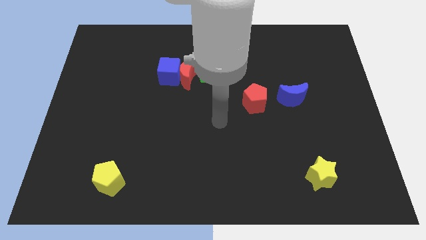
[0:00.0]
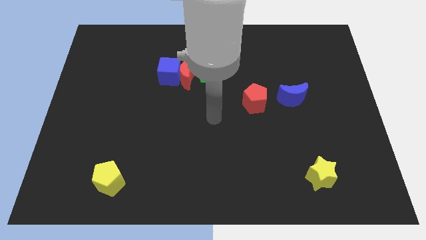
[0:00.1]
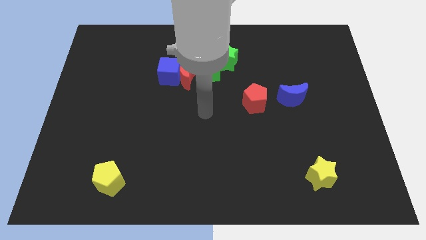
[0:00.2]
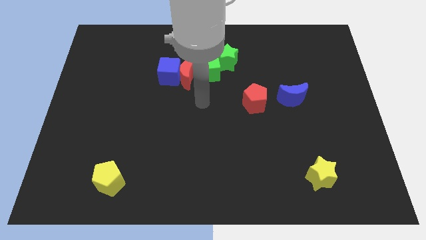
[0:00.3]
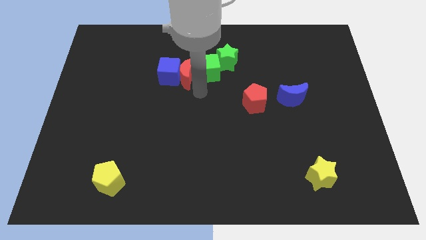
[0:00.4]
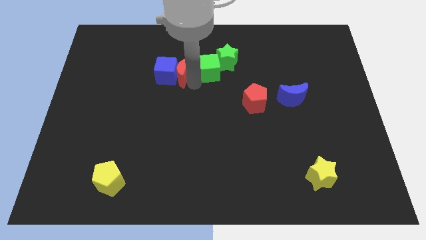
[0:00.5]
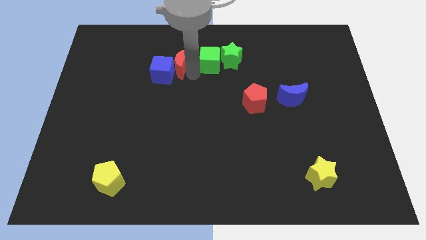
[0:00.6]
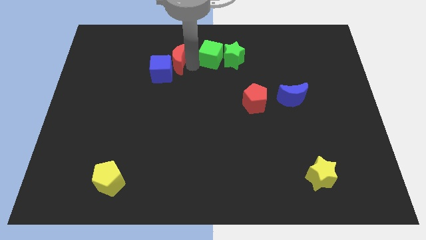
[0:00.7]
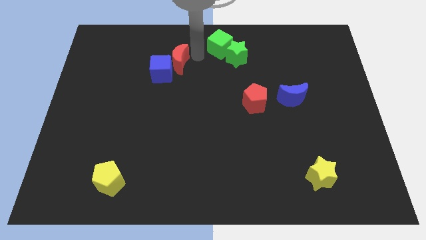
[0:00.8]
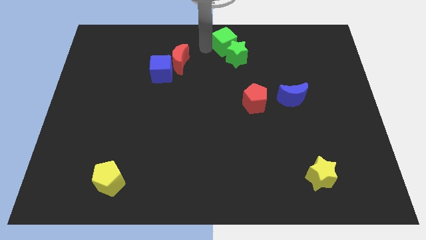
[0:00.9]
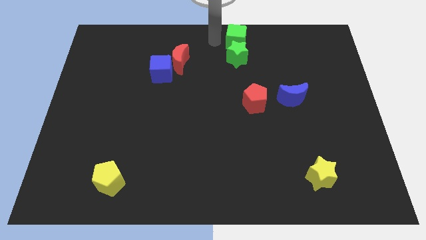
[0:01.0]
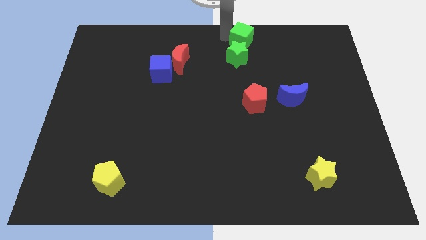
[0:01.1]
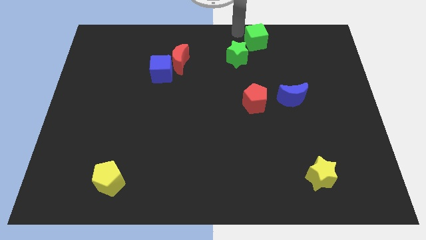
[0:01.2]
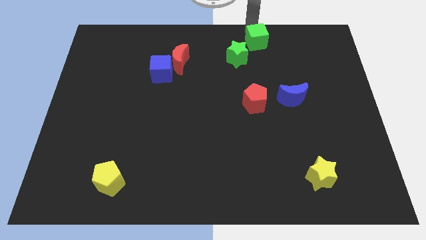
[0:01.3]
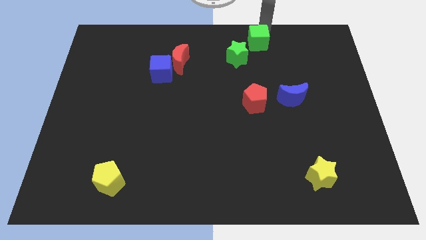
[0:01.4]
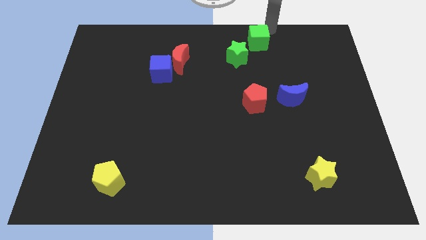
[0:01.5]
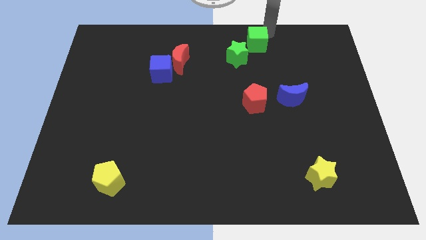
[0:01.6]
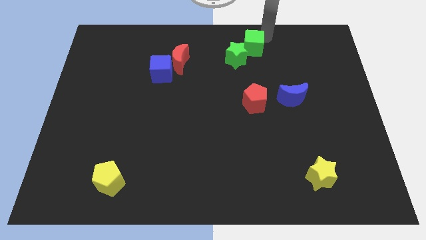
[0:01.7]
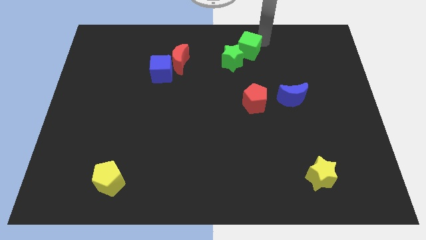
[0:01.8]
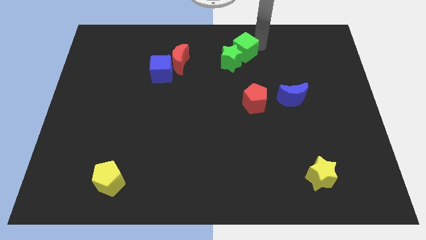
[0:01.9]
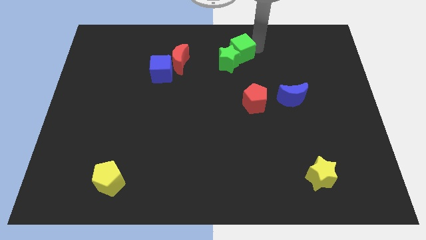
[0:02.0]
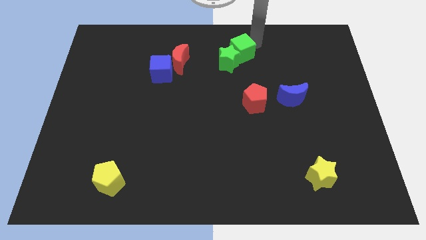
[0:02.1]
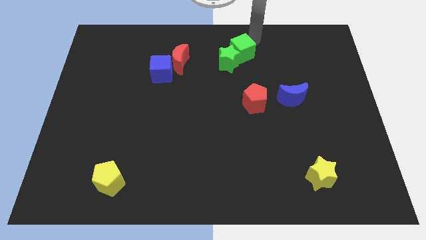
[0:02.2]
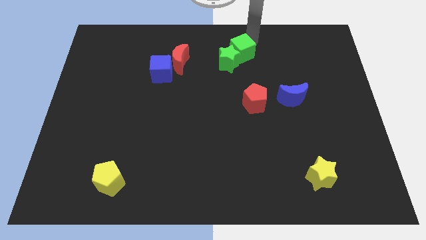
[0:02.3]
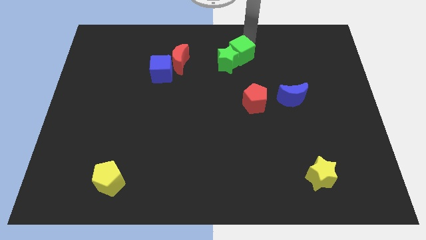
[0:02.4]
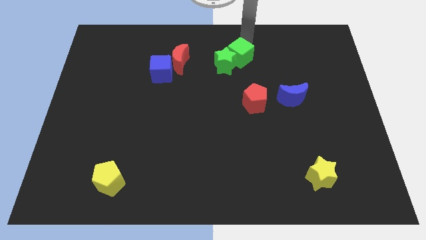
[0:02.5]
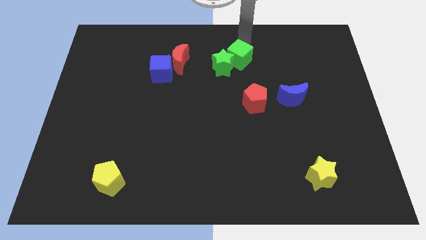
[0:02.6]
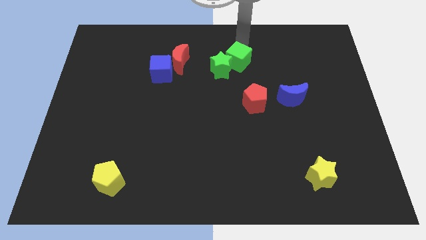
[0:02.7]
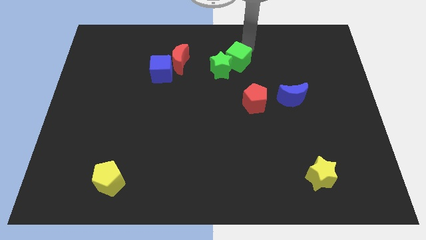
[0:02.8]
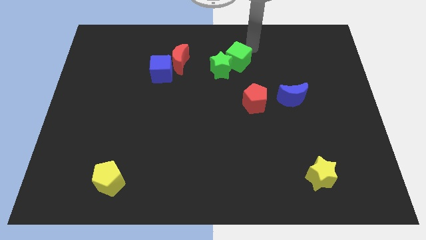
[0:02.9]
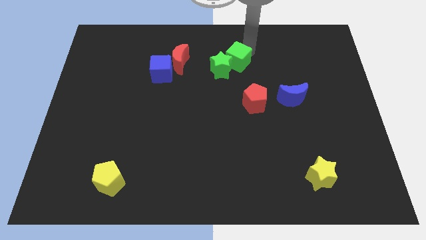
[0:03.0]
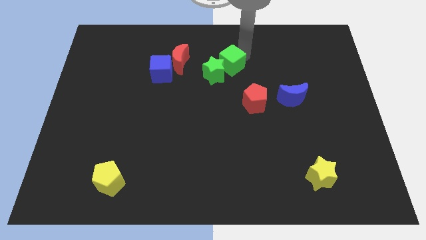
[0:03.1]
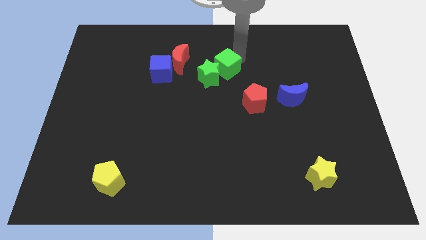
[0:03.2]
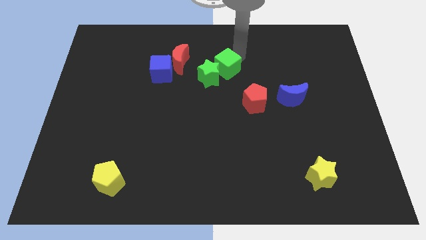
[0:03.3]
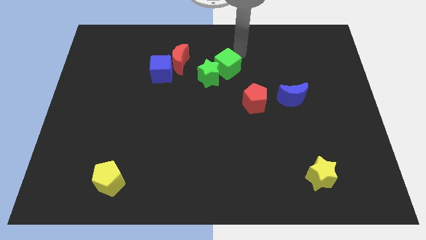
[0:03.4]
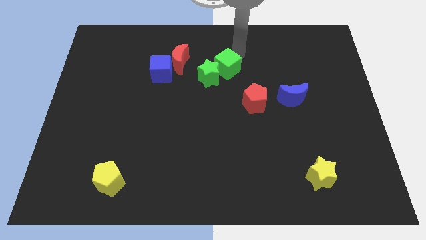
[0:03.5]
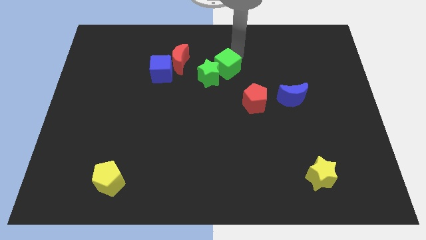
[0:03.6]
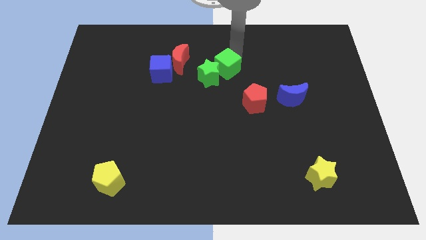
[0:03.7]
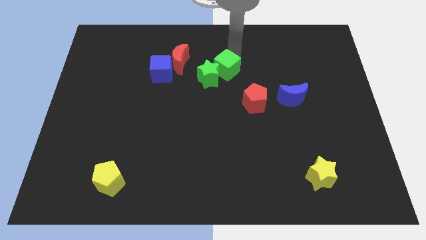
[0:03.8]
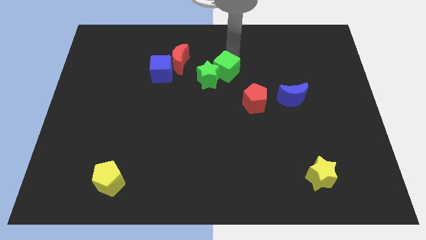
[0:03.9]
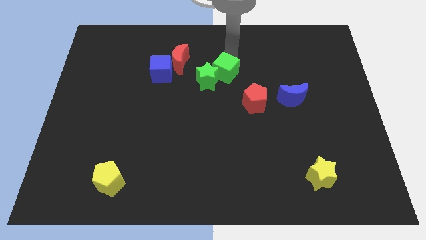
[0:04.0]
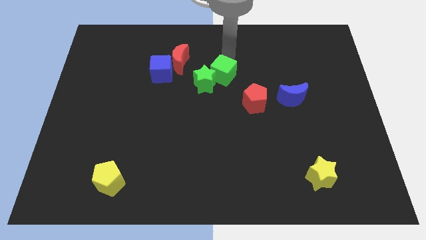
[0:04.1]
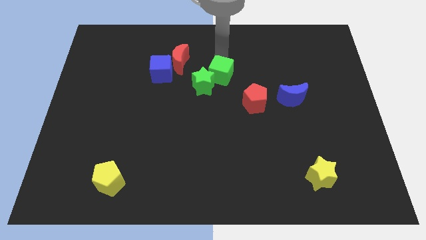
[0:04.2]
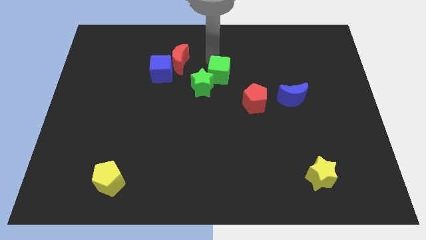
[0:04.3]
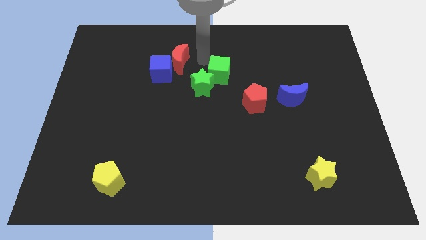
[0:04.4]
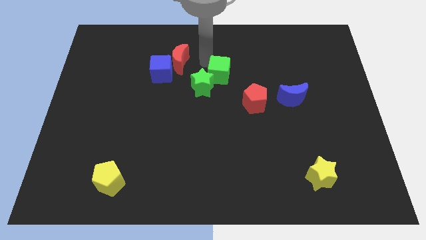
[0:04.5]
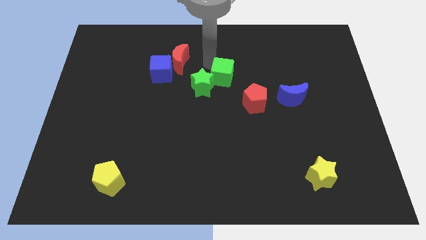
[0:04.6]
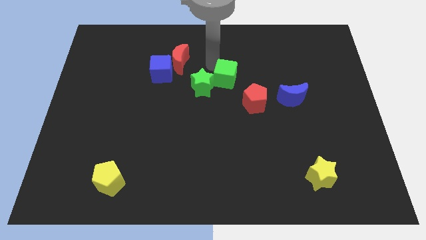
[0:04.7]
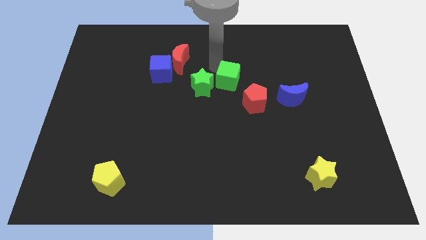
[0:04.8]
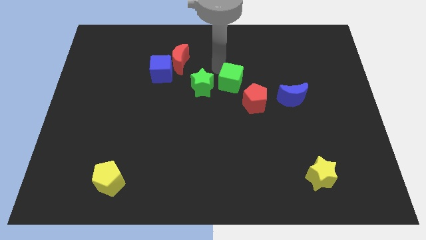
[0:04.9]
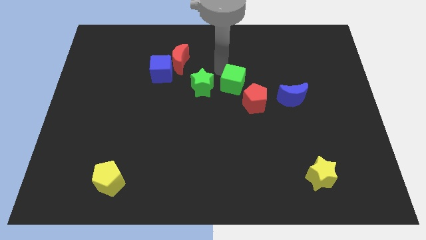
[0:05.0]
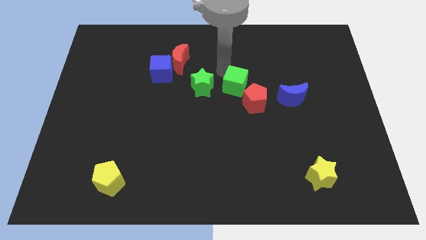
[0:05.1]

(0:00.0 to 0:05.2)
move the green cube to the left side of the blue moon

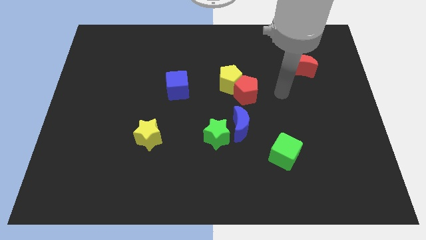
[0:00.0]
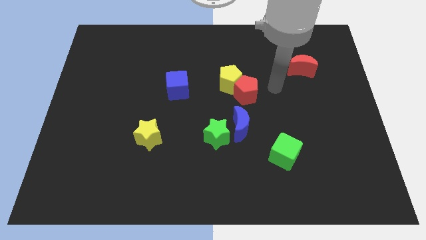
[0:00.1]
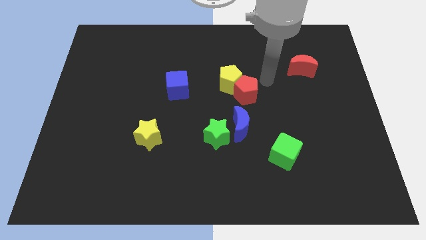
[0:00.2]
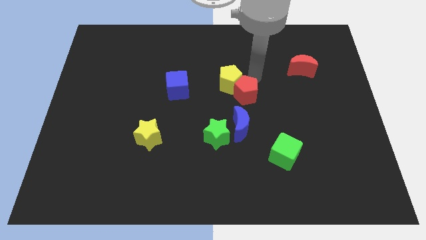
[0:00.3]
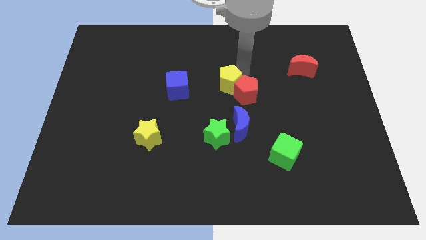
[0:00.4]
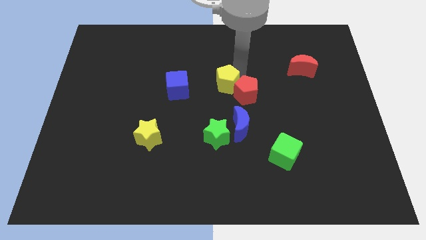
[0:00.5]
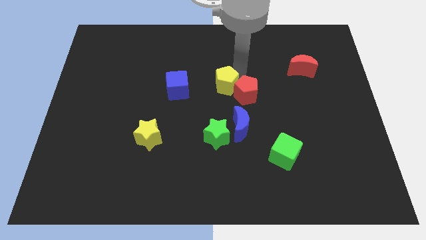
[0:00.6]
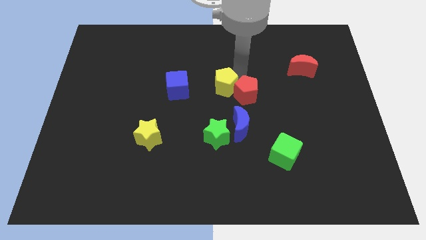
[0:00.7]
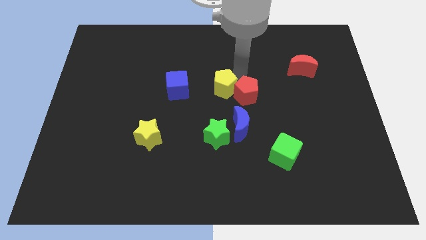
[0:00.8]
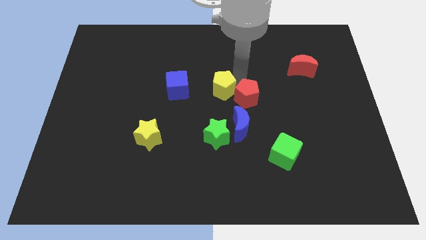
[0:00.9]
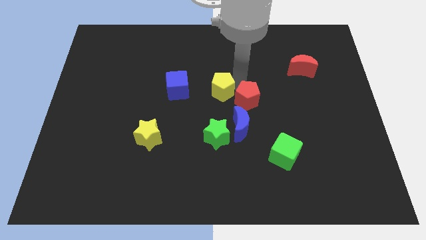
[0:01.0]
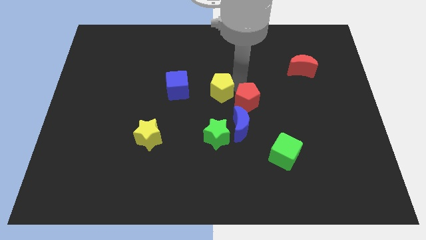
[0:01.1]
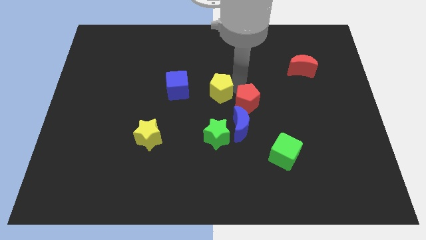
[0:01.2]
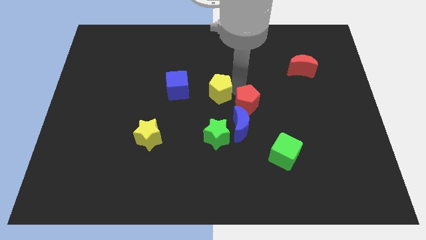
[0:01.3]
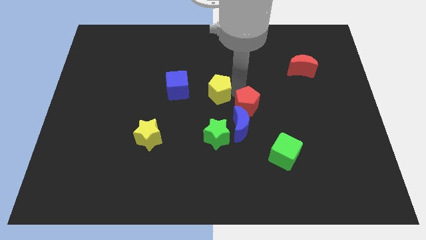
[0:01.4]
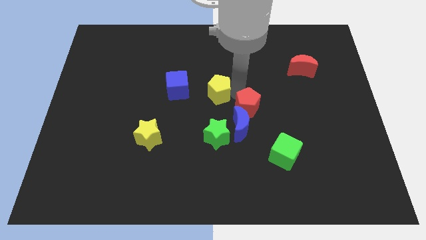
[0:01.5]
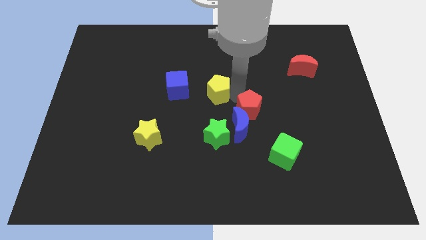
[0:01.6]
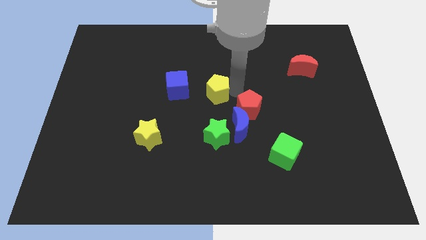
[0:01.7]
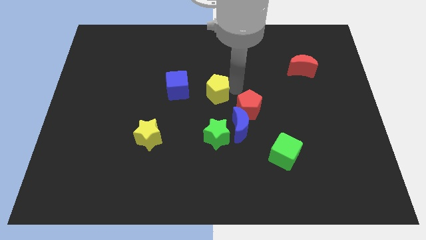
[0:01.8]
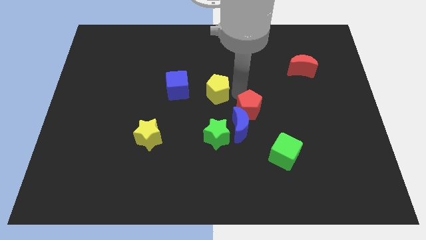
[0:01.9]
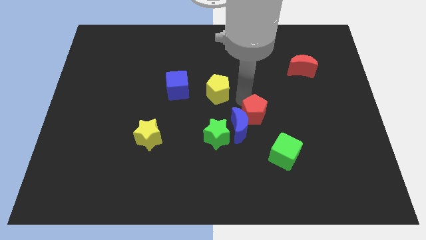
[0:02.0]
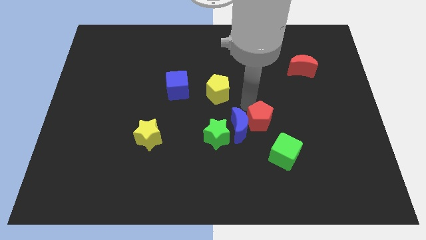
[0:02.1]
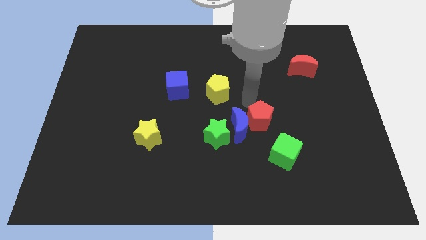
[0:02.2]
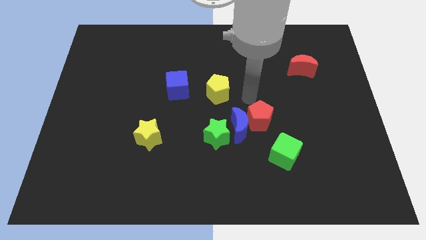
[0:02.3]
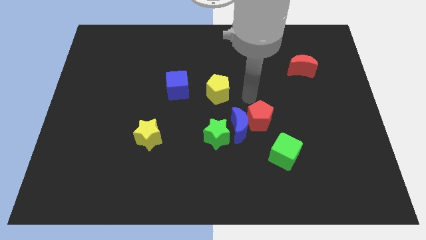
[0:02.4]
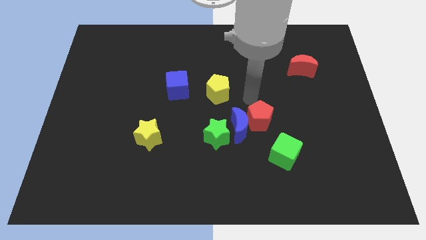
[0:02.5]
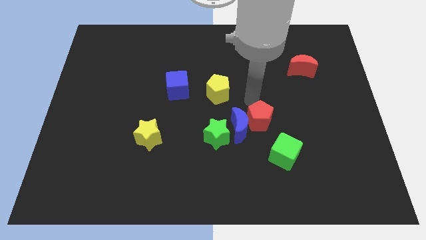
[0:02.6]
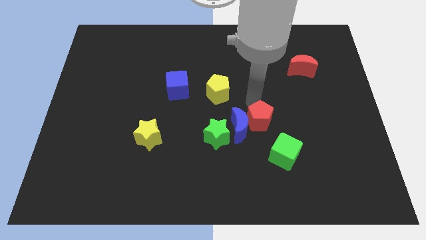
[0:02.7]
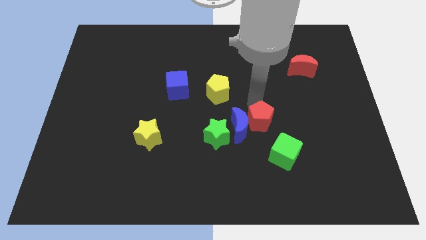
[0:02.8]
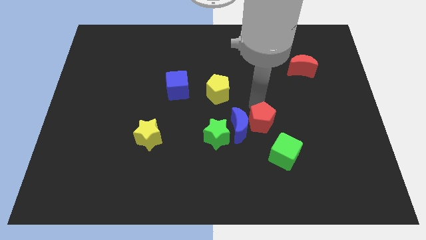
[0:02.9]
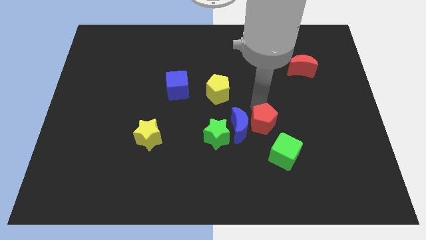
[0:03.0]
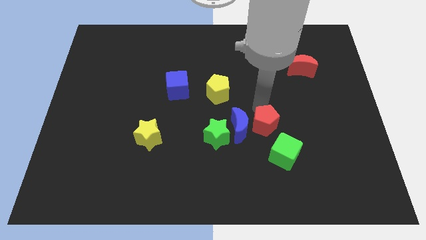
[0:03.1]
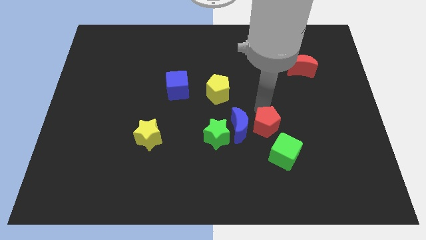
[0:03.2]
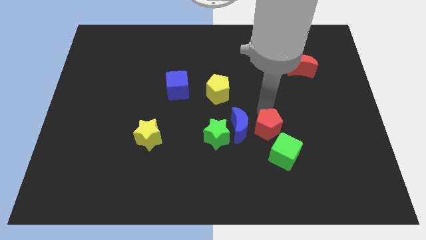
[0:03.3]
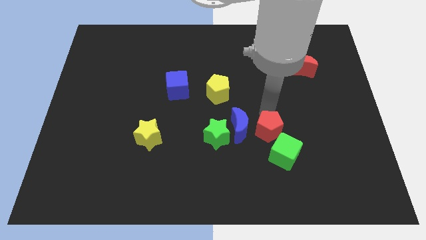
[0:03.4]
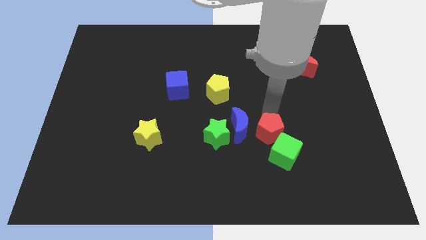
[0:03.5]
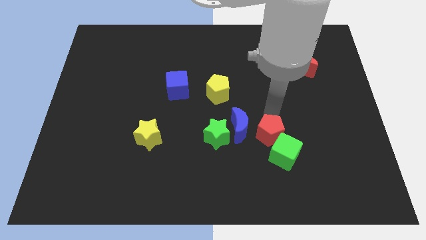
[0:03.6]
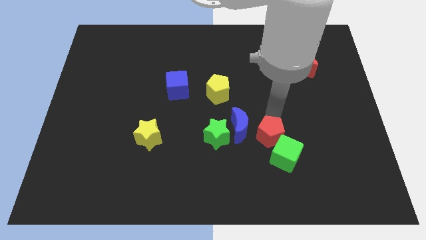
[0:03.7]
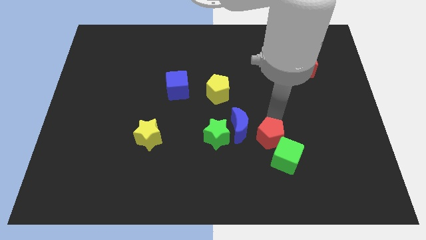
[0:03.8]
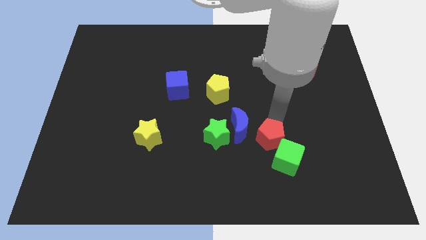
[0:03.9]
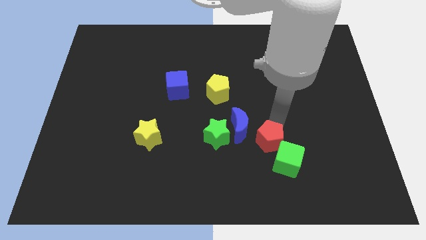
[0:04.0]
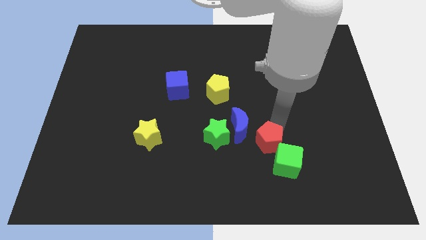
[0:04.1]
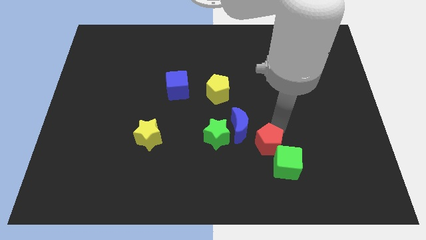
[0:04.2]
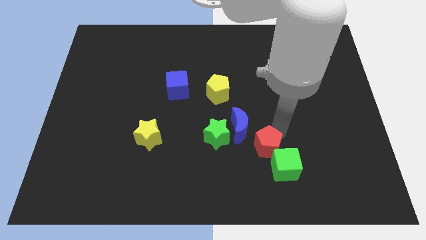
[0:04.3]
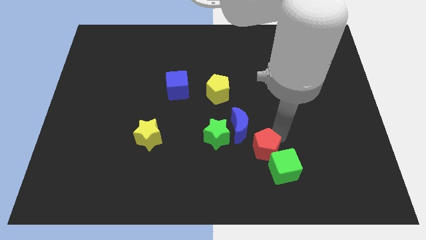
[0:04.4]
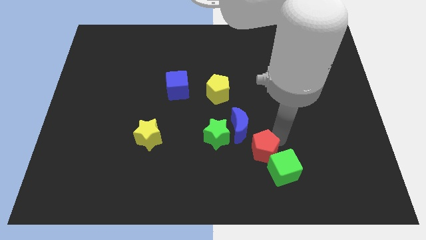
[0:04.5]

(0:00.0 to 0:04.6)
push the red pentagon below the blue moon
